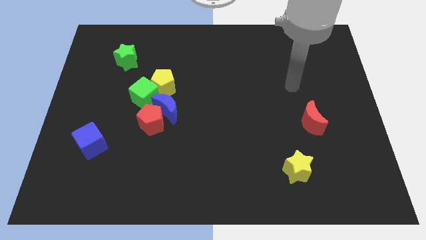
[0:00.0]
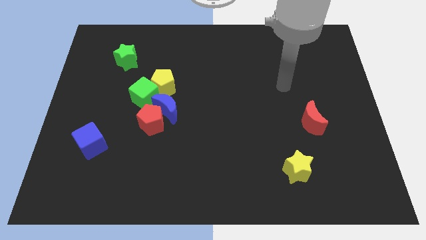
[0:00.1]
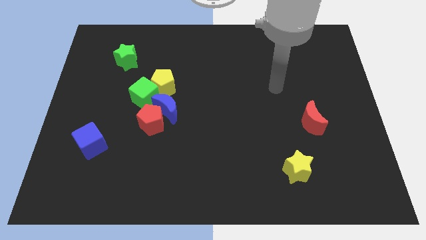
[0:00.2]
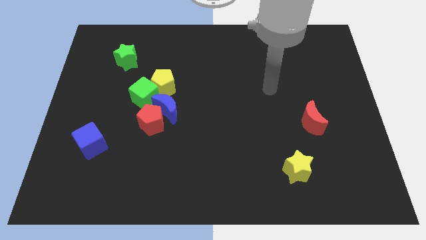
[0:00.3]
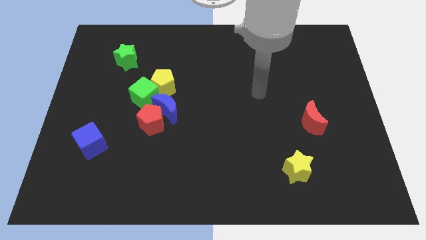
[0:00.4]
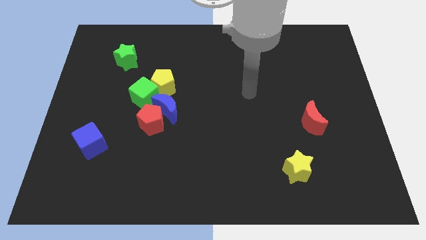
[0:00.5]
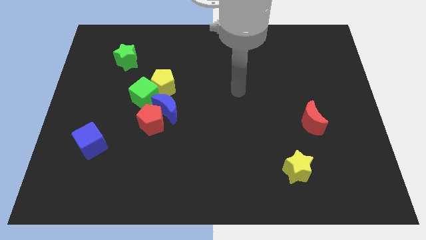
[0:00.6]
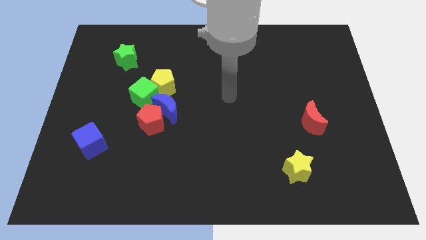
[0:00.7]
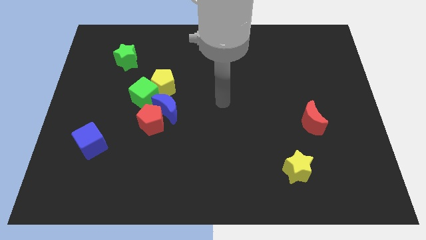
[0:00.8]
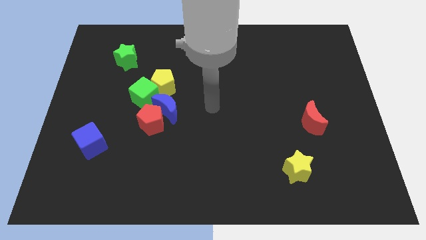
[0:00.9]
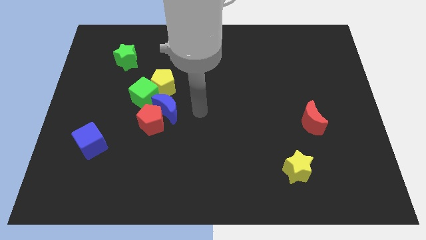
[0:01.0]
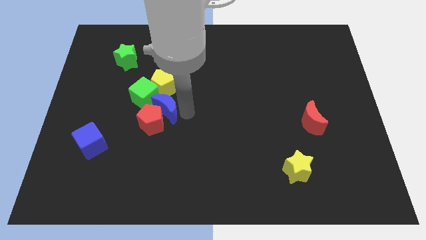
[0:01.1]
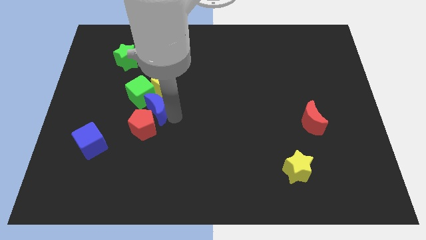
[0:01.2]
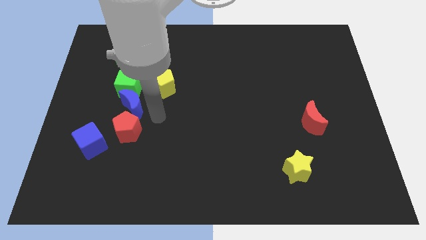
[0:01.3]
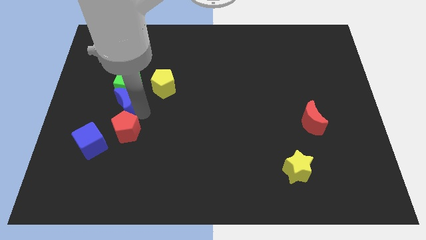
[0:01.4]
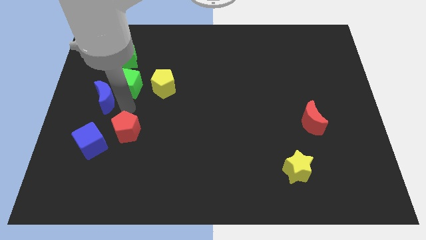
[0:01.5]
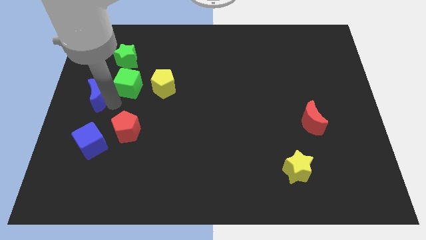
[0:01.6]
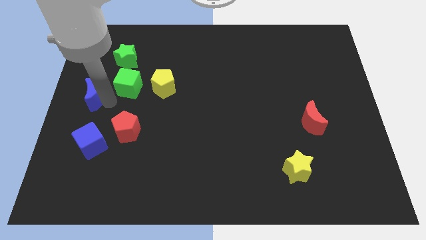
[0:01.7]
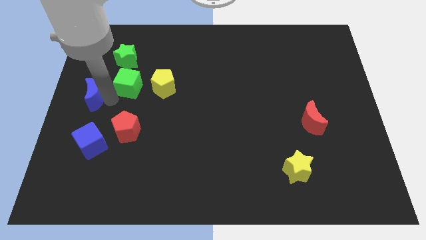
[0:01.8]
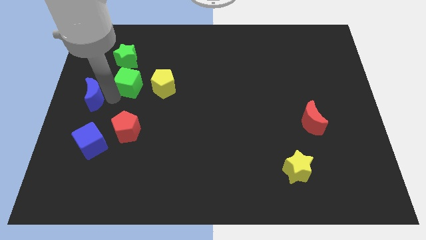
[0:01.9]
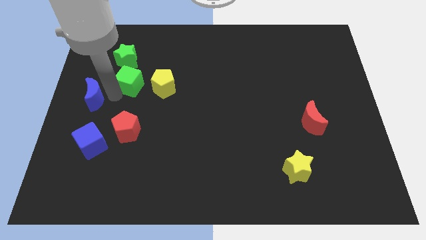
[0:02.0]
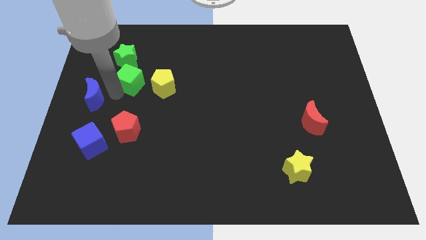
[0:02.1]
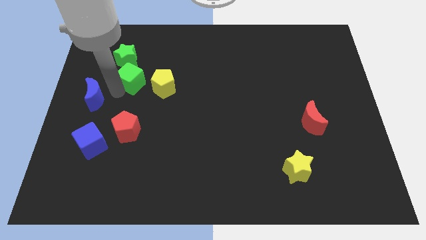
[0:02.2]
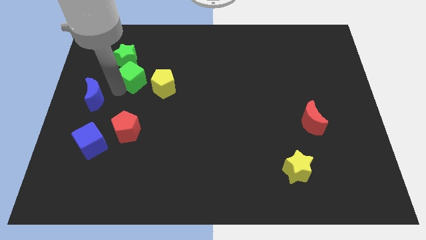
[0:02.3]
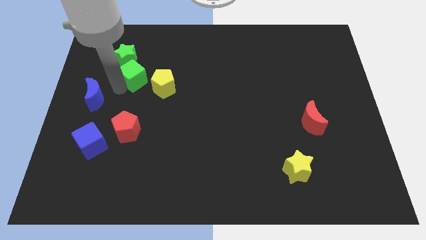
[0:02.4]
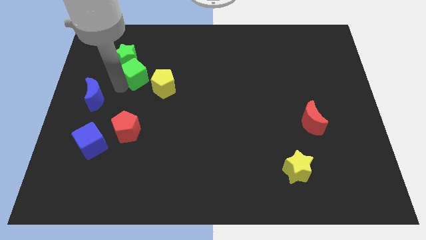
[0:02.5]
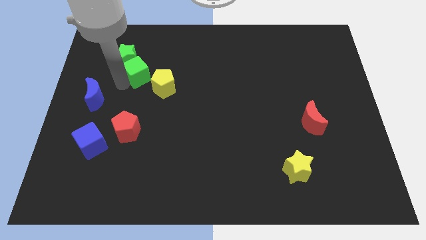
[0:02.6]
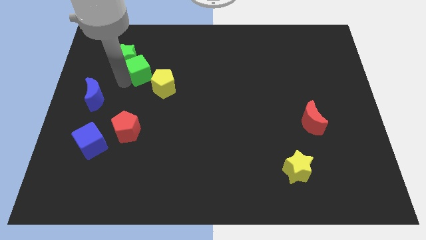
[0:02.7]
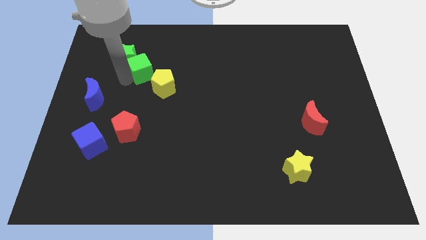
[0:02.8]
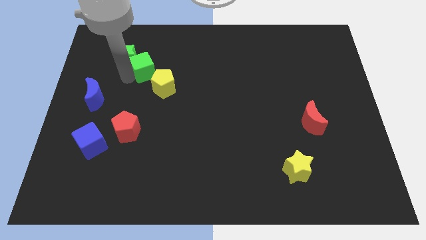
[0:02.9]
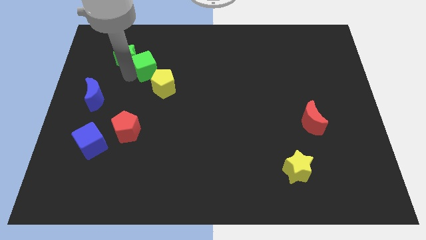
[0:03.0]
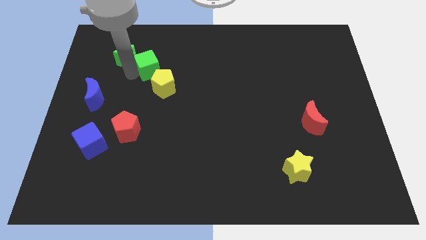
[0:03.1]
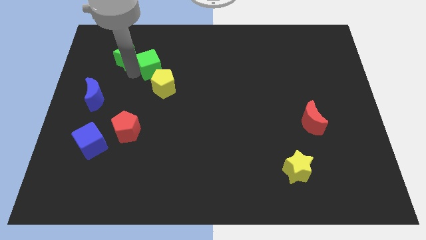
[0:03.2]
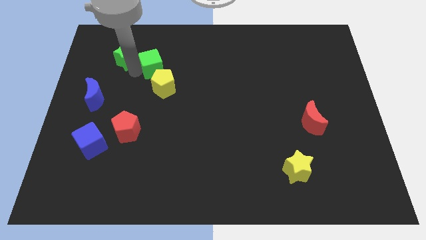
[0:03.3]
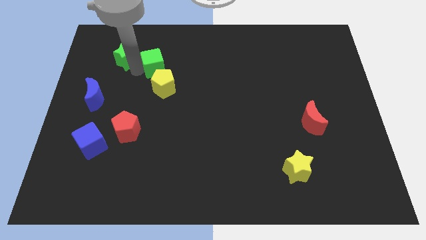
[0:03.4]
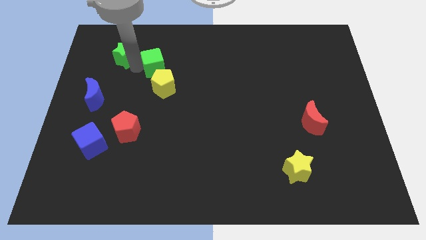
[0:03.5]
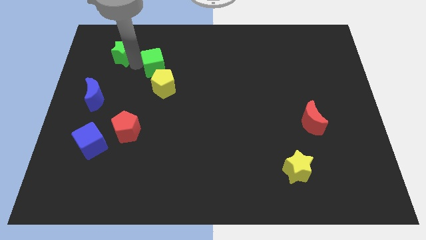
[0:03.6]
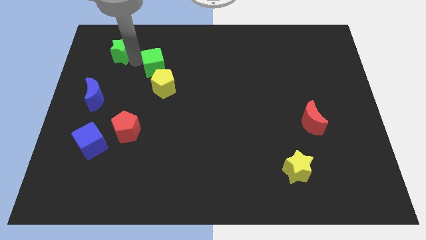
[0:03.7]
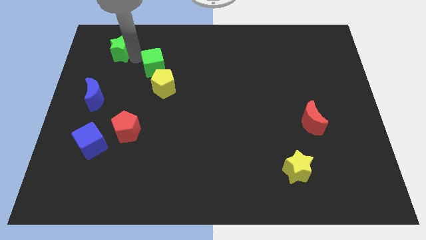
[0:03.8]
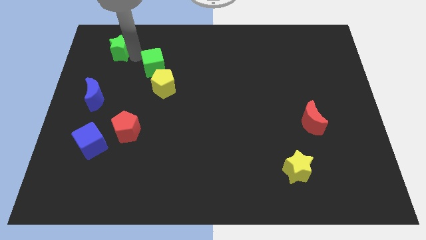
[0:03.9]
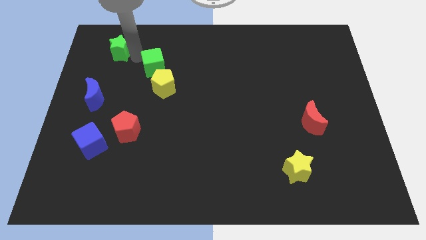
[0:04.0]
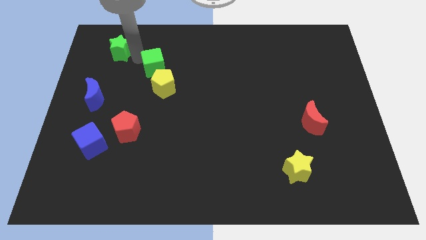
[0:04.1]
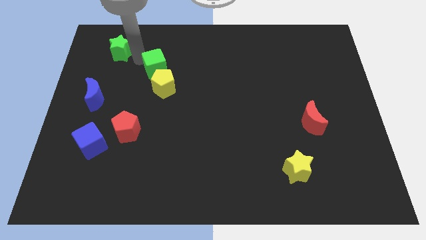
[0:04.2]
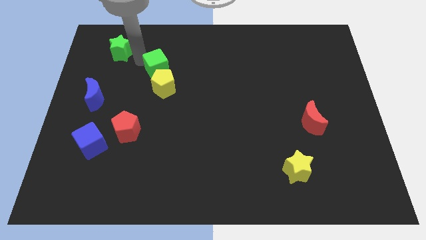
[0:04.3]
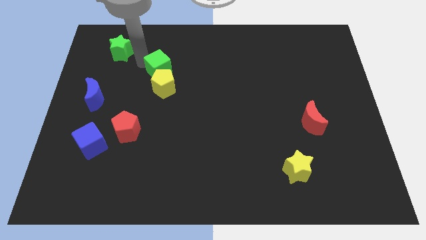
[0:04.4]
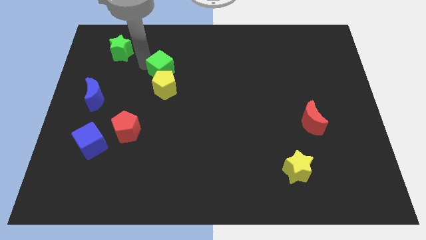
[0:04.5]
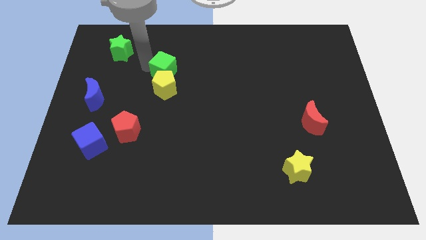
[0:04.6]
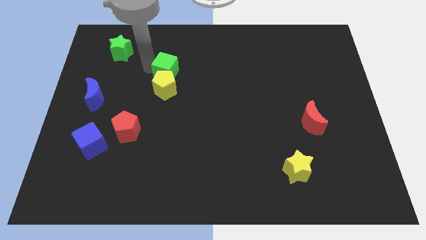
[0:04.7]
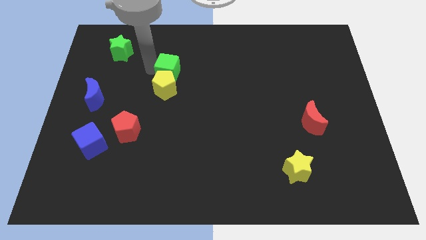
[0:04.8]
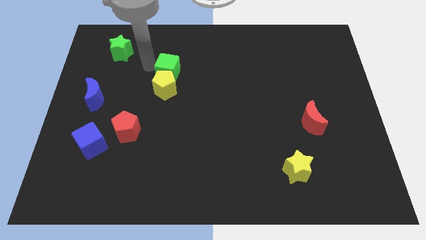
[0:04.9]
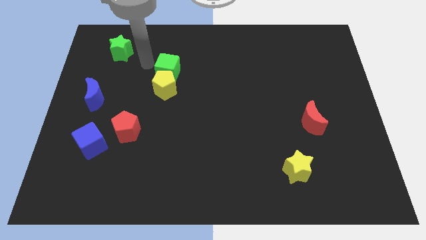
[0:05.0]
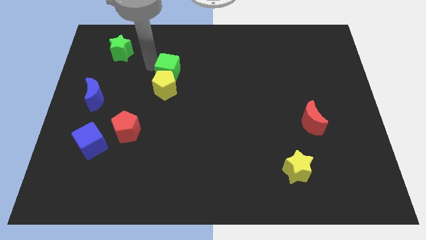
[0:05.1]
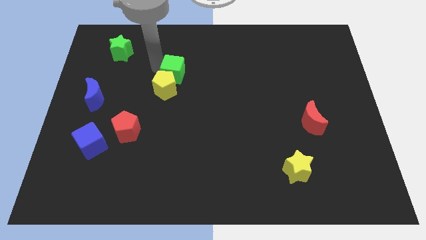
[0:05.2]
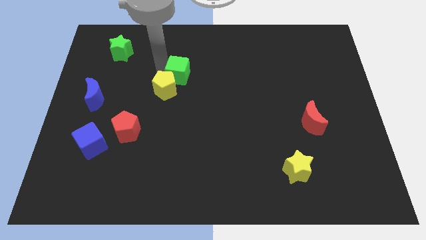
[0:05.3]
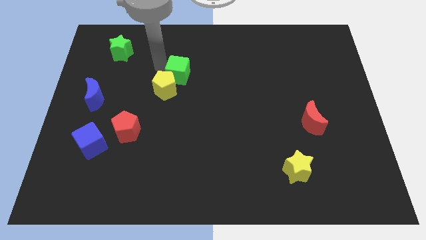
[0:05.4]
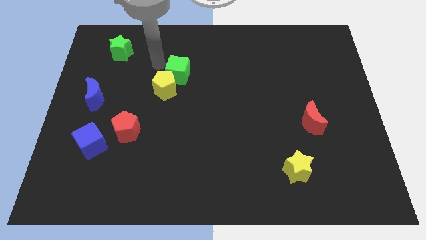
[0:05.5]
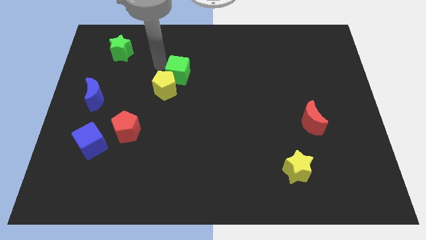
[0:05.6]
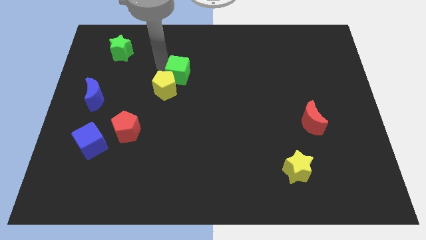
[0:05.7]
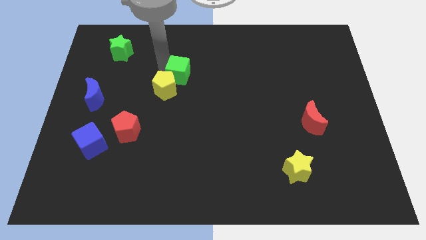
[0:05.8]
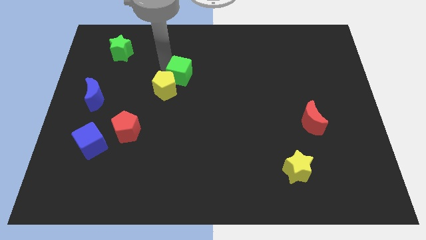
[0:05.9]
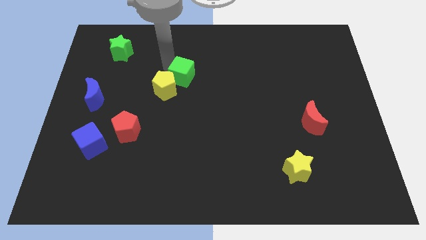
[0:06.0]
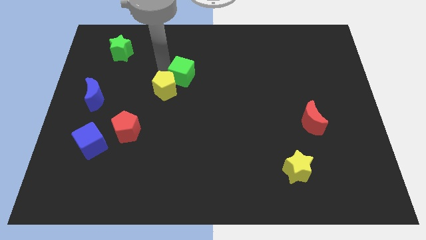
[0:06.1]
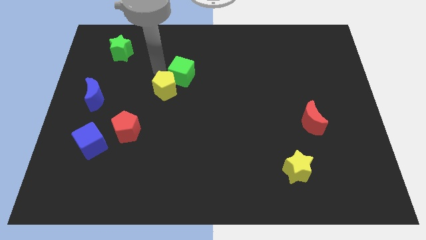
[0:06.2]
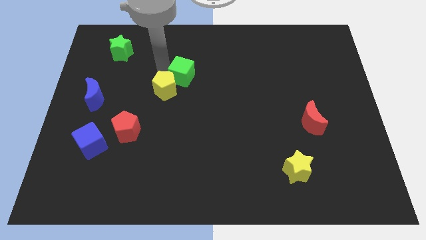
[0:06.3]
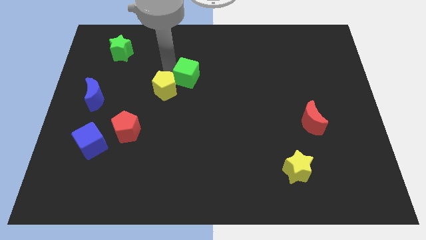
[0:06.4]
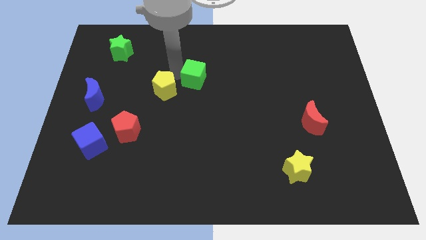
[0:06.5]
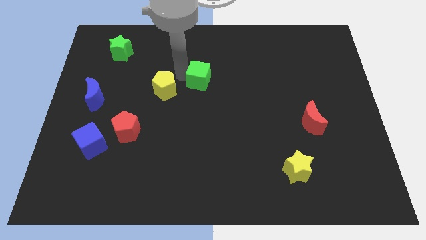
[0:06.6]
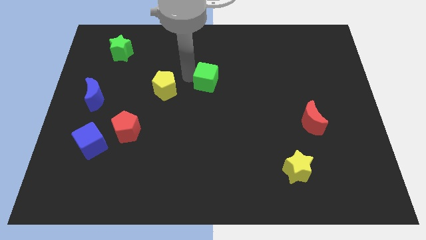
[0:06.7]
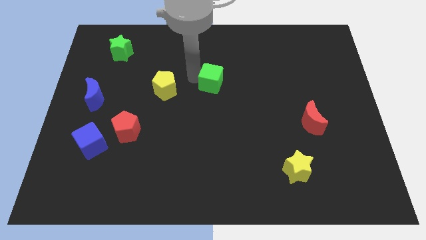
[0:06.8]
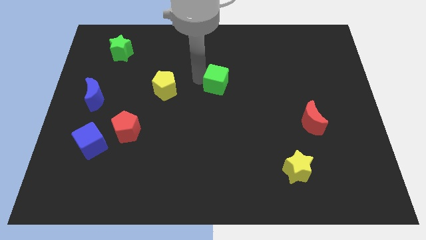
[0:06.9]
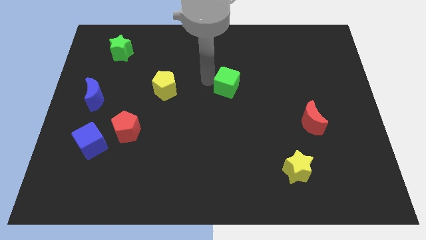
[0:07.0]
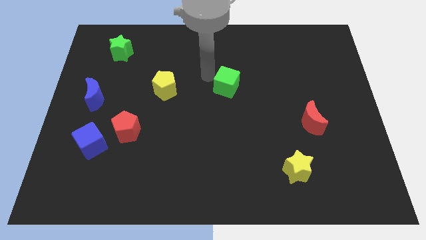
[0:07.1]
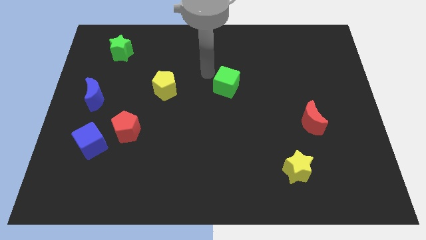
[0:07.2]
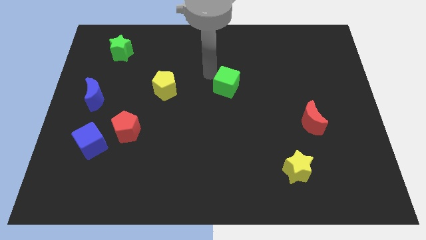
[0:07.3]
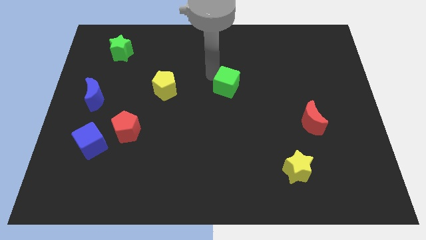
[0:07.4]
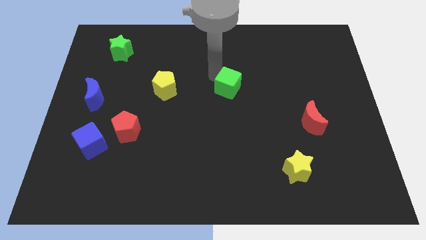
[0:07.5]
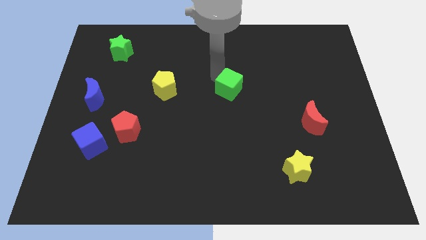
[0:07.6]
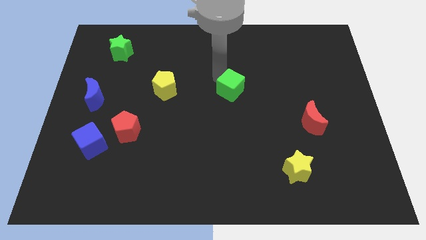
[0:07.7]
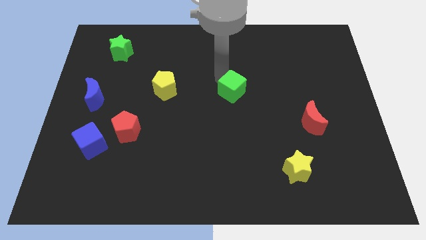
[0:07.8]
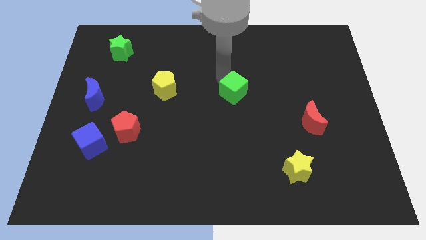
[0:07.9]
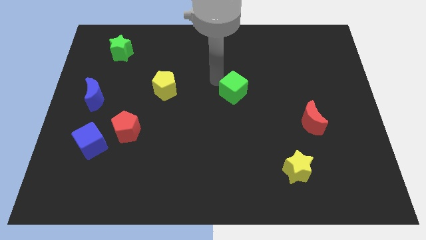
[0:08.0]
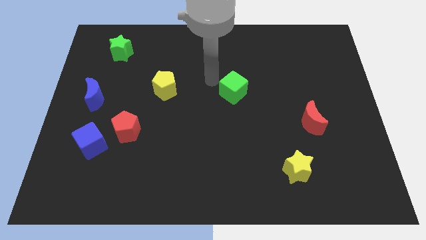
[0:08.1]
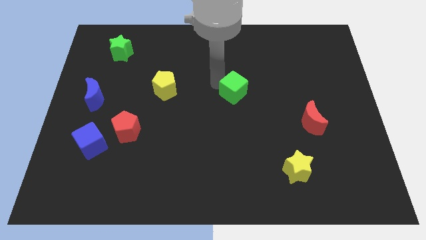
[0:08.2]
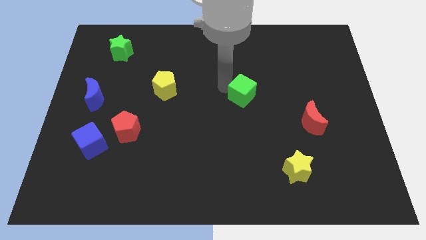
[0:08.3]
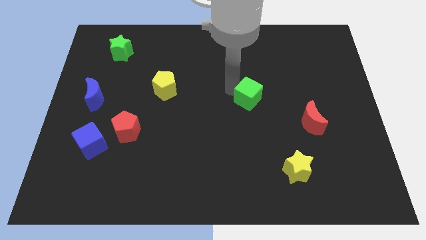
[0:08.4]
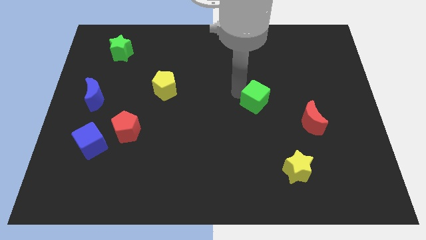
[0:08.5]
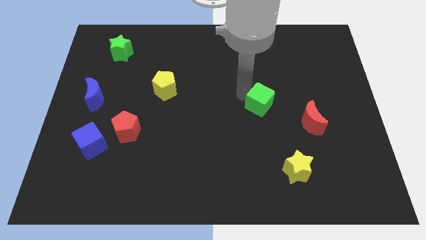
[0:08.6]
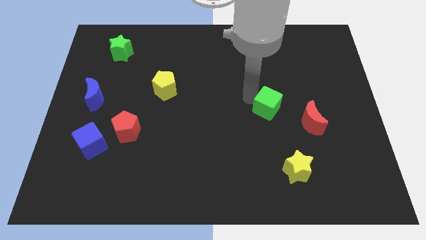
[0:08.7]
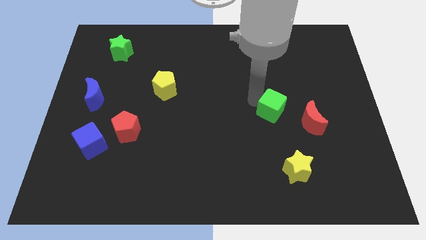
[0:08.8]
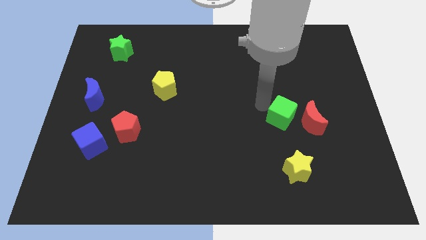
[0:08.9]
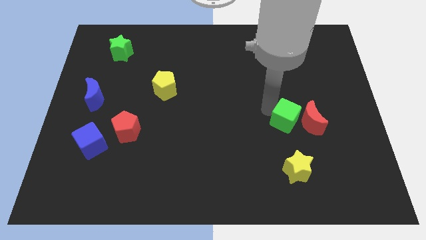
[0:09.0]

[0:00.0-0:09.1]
slide the green cube close to the red moon
